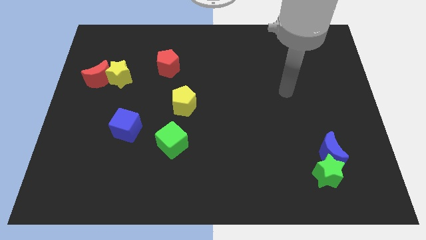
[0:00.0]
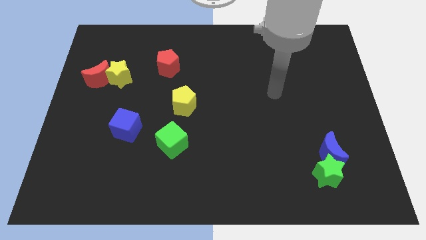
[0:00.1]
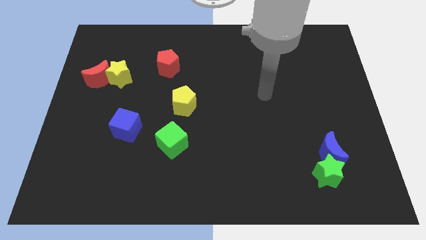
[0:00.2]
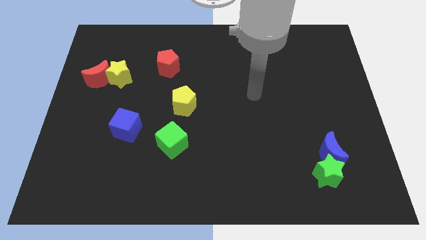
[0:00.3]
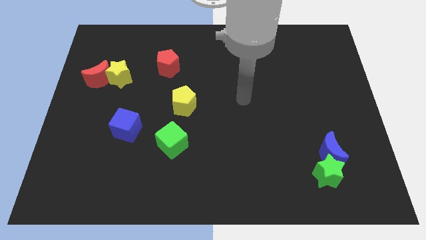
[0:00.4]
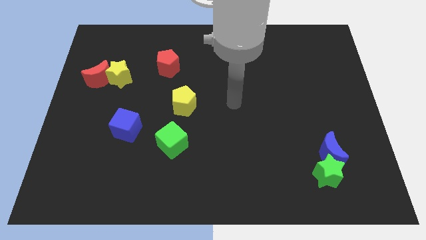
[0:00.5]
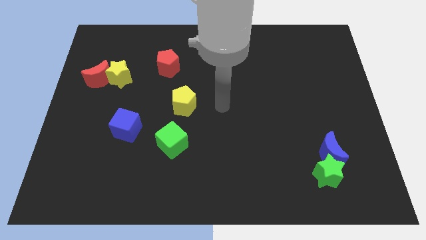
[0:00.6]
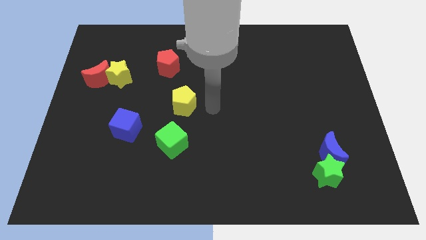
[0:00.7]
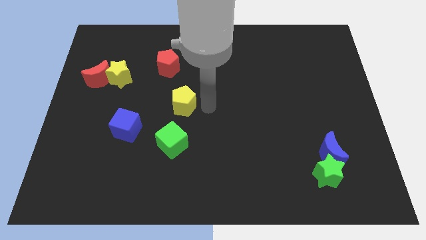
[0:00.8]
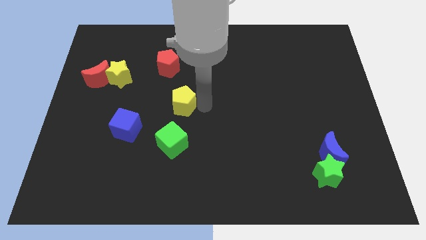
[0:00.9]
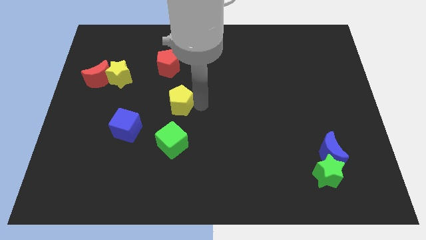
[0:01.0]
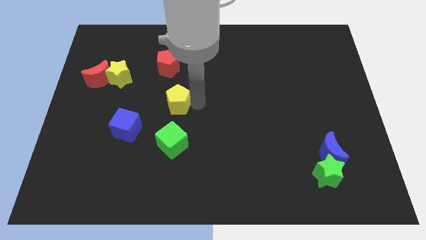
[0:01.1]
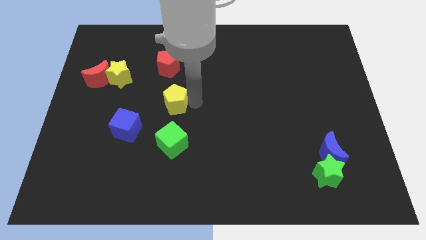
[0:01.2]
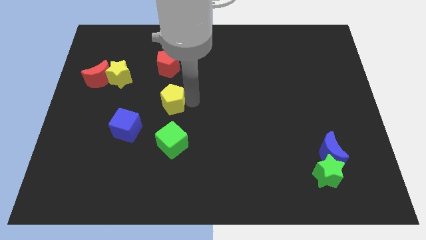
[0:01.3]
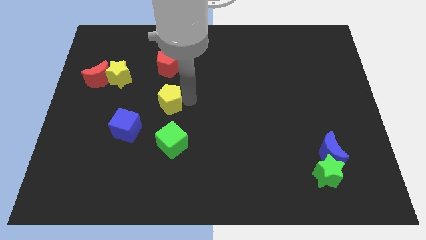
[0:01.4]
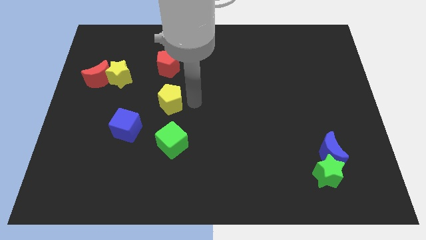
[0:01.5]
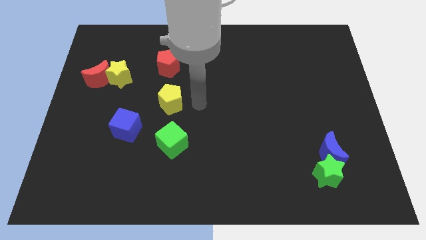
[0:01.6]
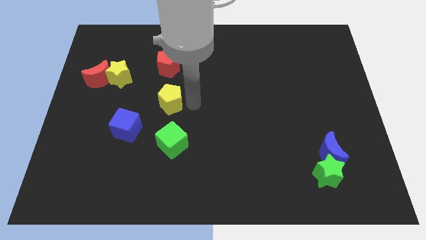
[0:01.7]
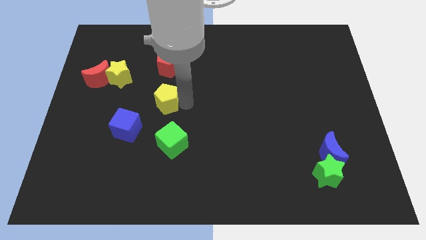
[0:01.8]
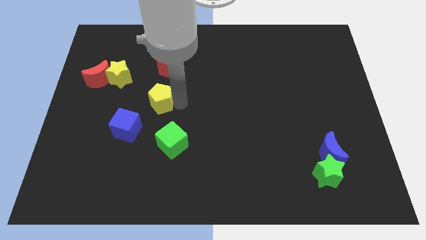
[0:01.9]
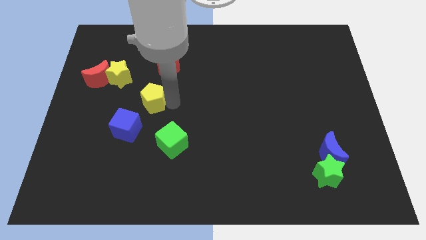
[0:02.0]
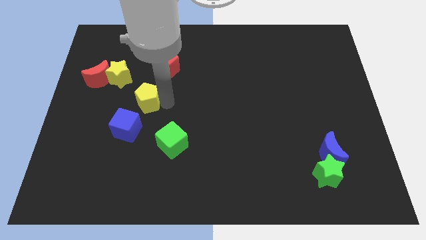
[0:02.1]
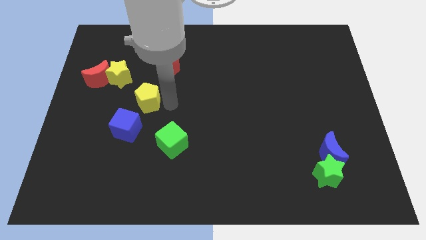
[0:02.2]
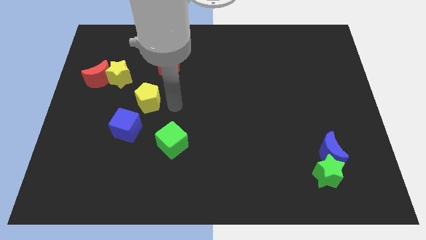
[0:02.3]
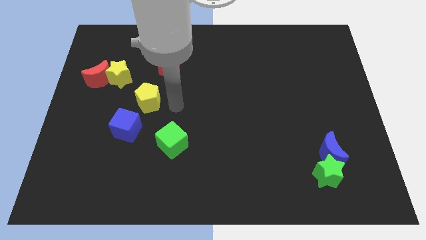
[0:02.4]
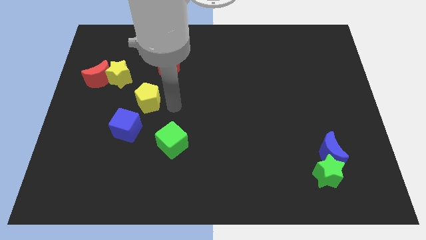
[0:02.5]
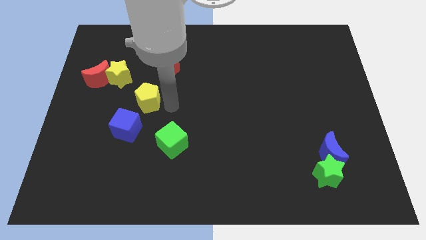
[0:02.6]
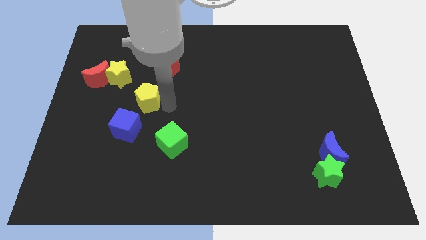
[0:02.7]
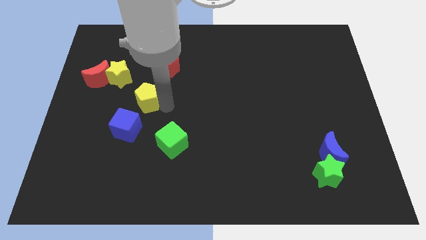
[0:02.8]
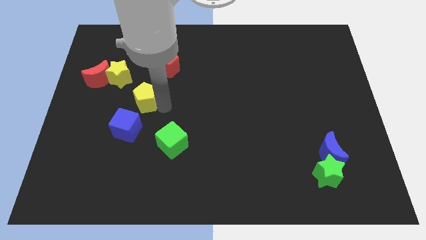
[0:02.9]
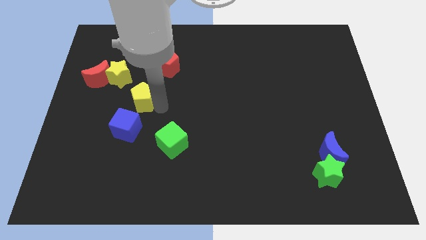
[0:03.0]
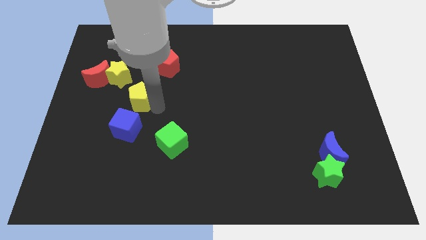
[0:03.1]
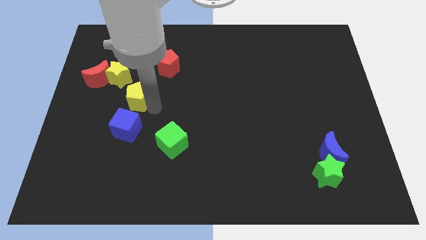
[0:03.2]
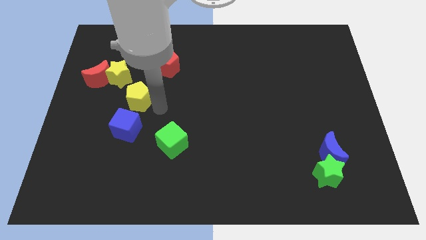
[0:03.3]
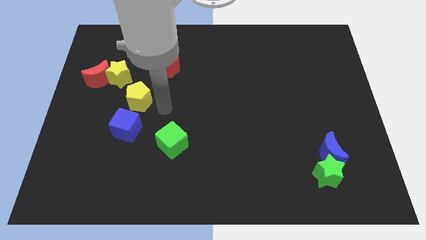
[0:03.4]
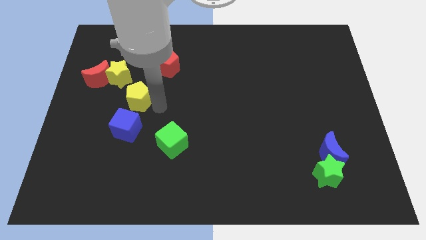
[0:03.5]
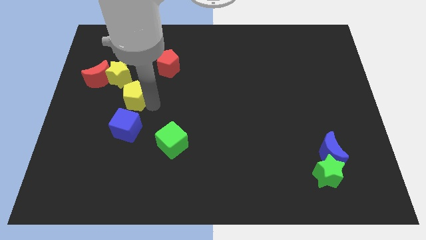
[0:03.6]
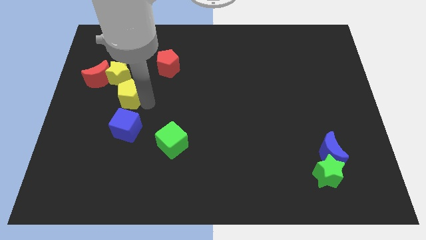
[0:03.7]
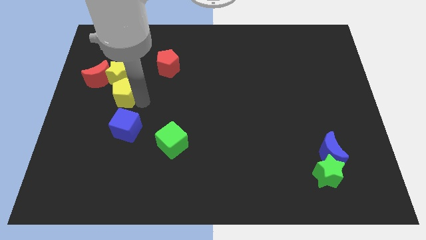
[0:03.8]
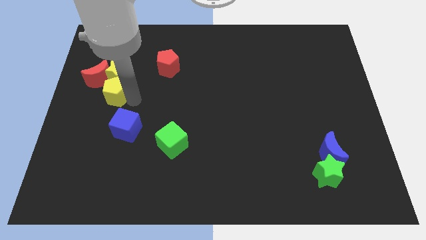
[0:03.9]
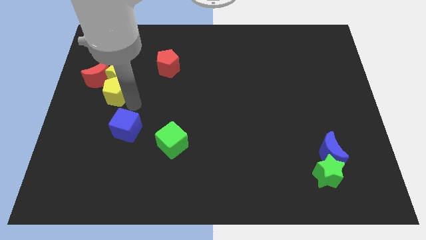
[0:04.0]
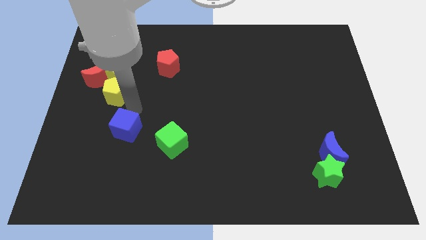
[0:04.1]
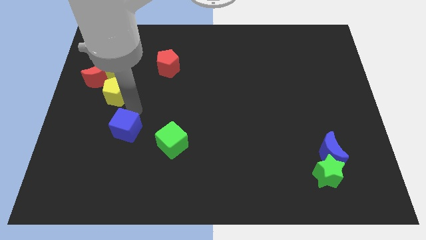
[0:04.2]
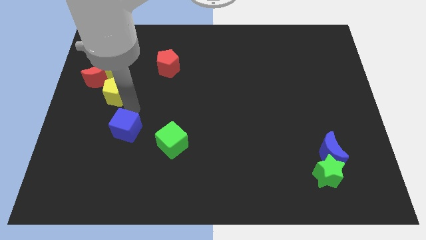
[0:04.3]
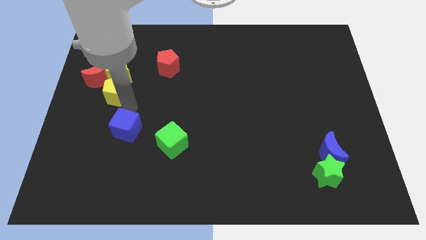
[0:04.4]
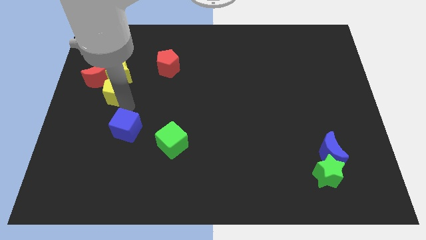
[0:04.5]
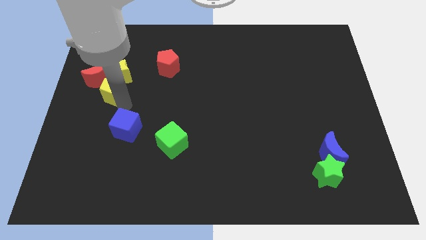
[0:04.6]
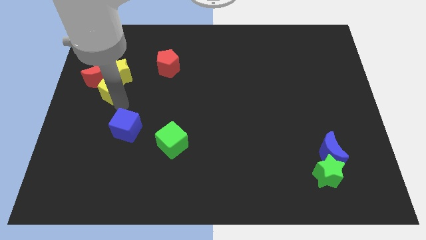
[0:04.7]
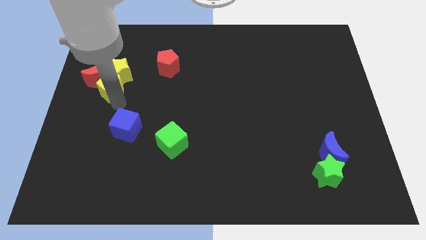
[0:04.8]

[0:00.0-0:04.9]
move the yellow pentagon towards the red moon

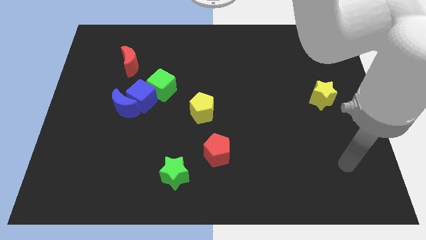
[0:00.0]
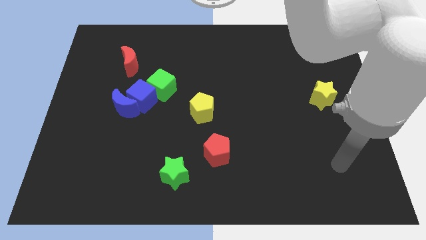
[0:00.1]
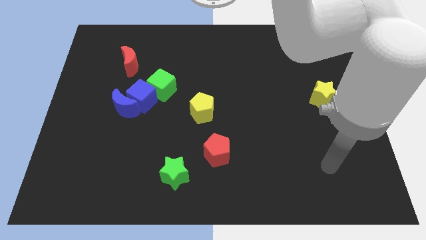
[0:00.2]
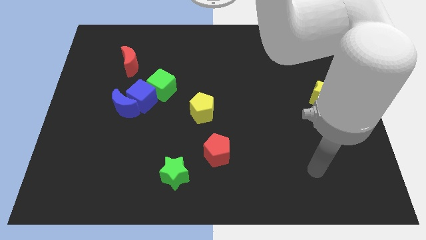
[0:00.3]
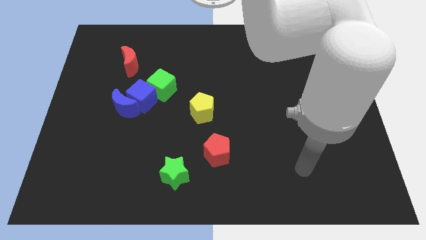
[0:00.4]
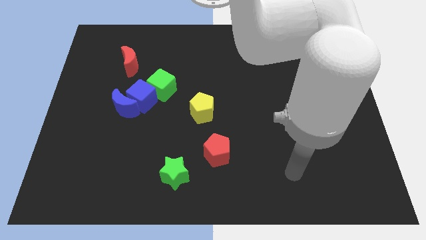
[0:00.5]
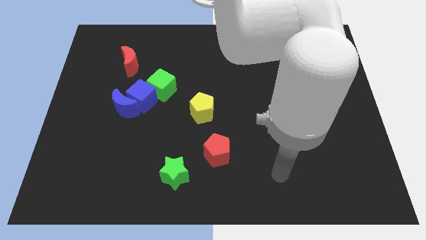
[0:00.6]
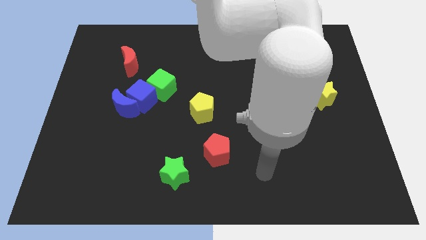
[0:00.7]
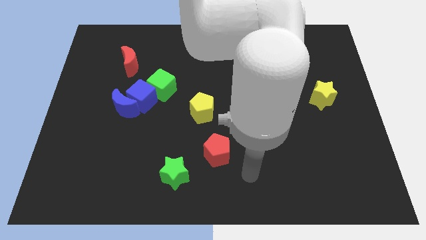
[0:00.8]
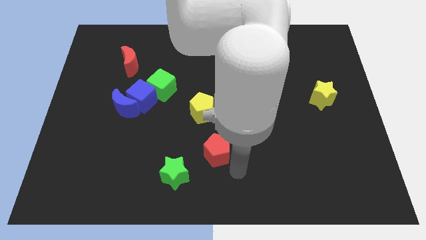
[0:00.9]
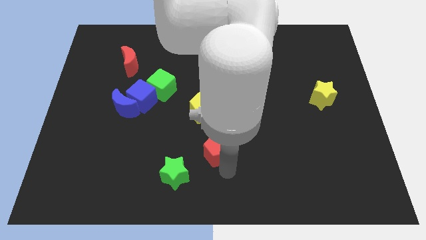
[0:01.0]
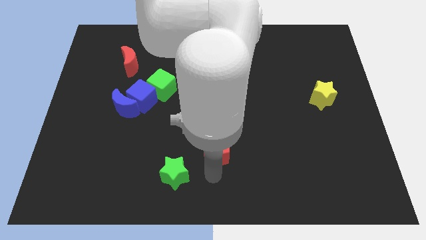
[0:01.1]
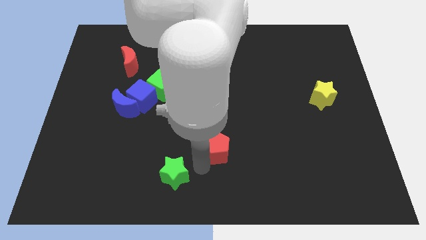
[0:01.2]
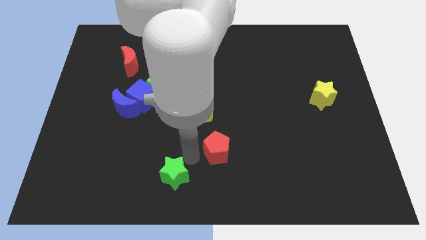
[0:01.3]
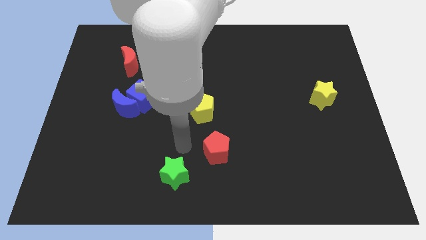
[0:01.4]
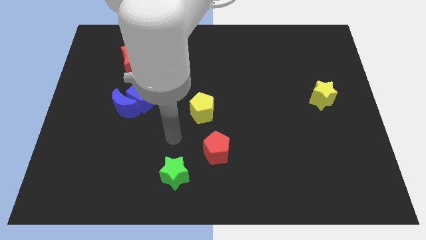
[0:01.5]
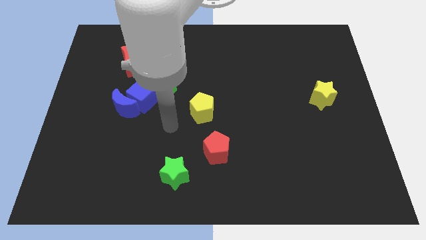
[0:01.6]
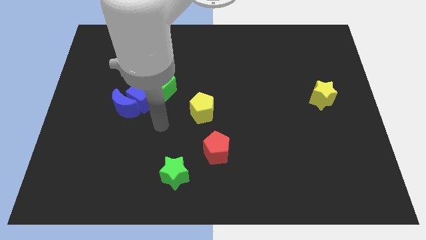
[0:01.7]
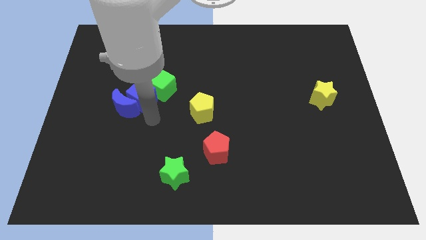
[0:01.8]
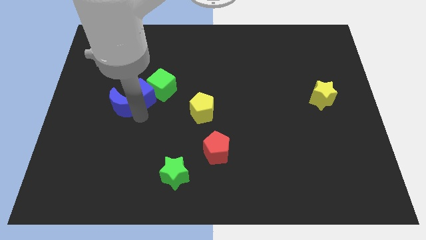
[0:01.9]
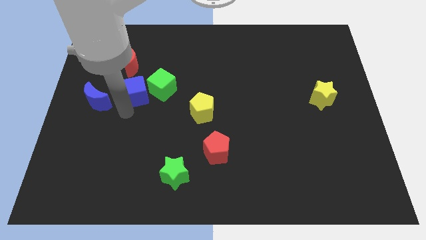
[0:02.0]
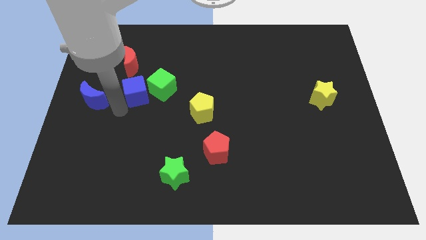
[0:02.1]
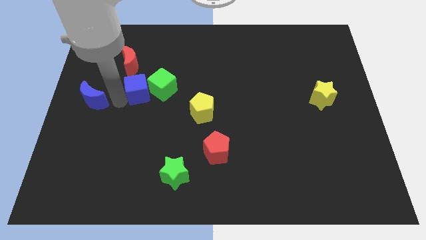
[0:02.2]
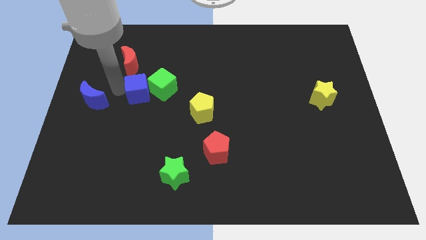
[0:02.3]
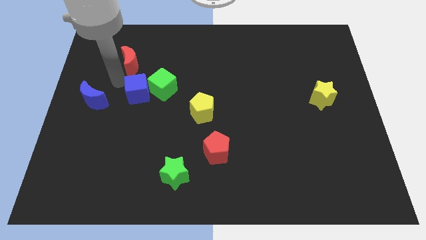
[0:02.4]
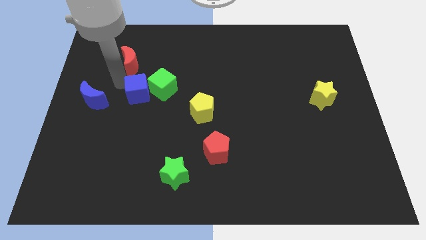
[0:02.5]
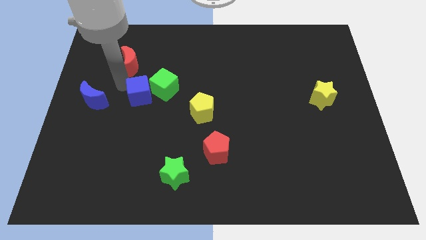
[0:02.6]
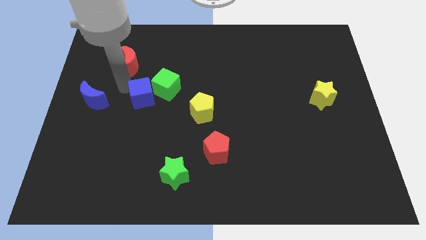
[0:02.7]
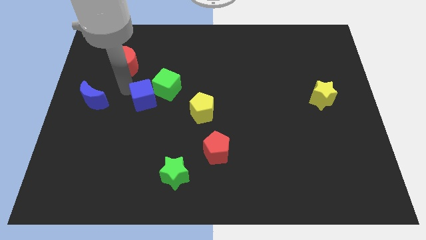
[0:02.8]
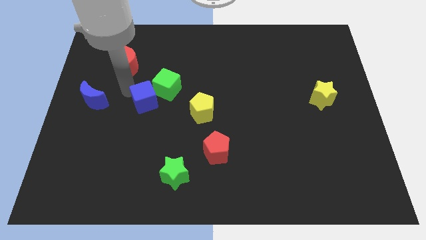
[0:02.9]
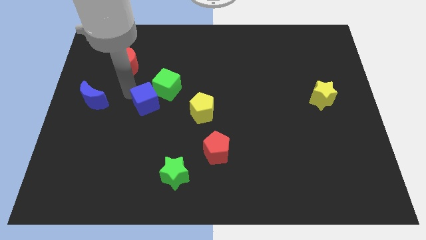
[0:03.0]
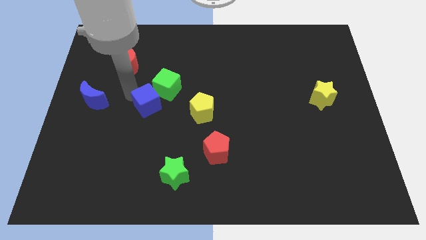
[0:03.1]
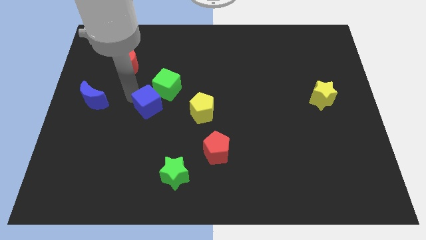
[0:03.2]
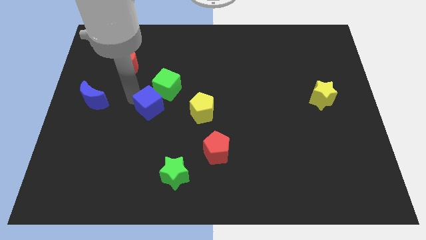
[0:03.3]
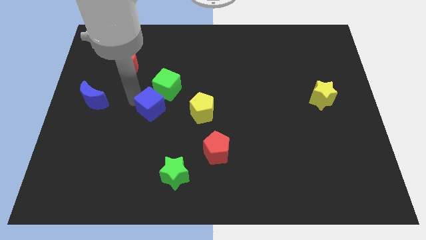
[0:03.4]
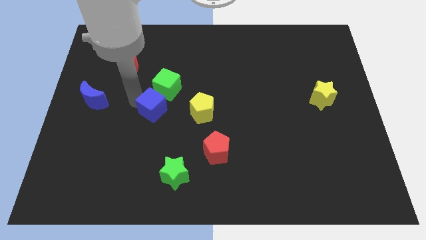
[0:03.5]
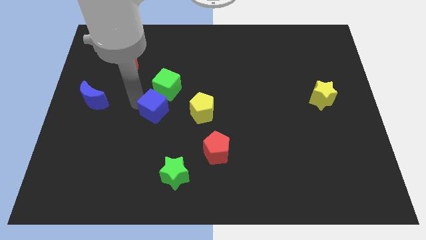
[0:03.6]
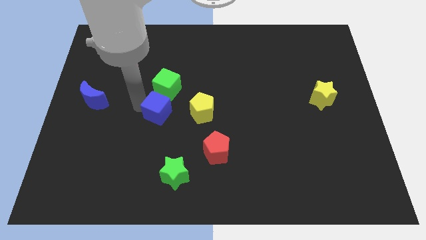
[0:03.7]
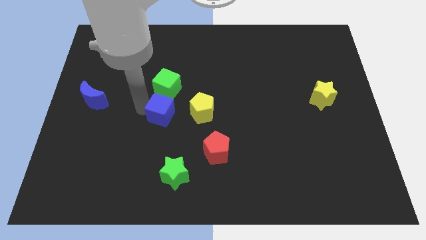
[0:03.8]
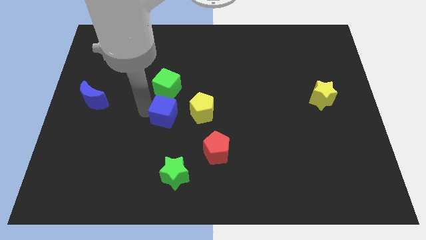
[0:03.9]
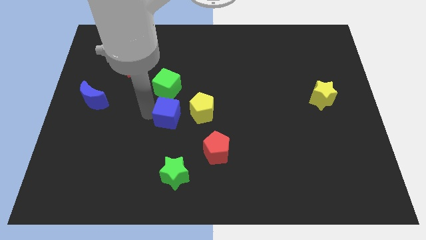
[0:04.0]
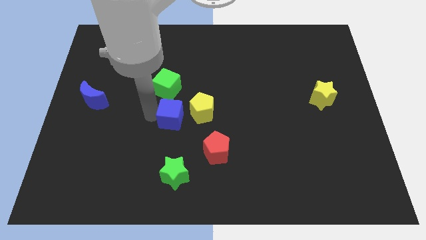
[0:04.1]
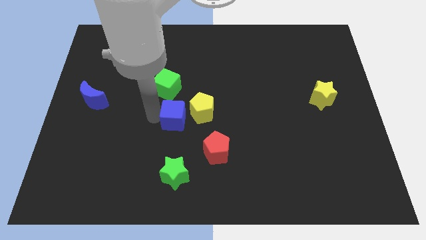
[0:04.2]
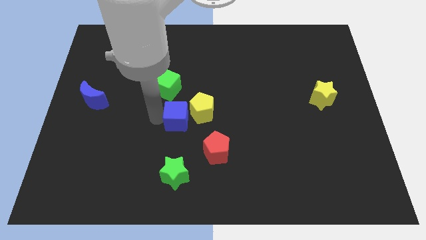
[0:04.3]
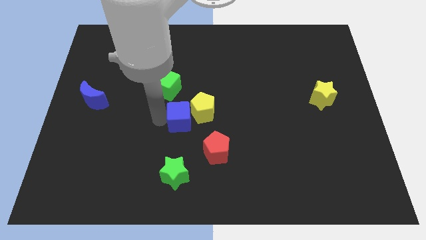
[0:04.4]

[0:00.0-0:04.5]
slide the blue cube close to the yellow pentagon
